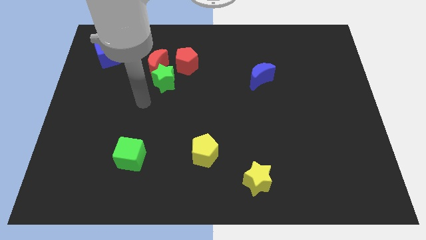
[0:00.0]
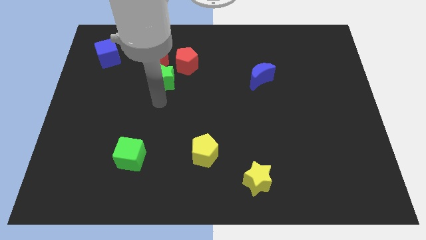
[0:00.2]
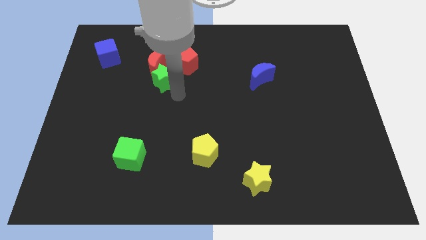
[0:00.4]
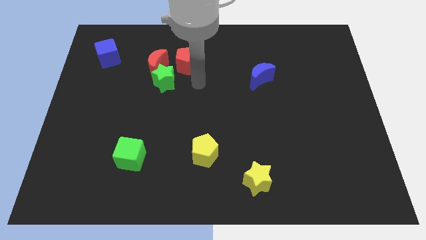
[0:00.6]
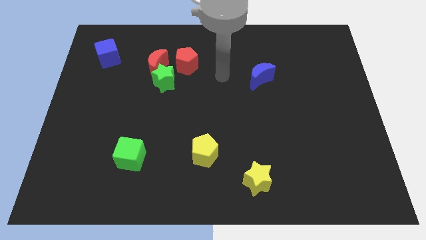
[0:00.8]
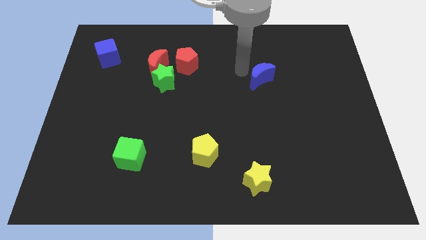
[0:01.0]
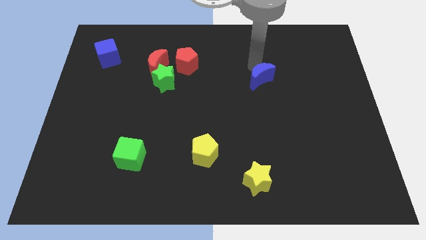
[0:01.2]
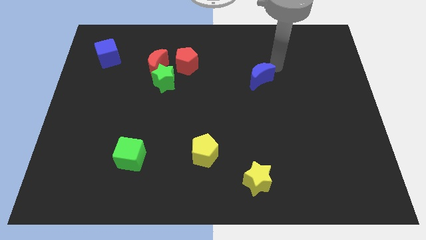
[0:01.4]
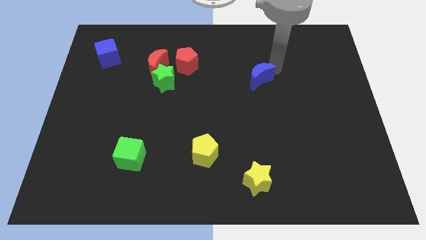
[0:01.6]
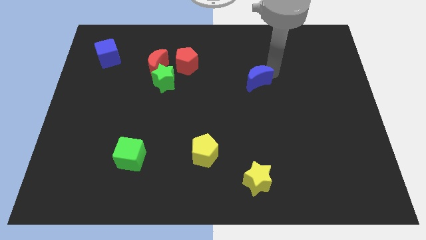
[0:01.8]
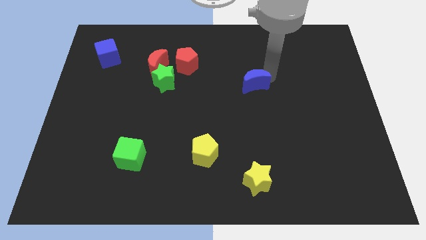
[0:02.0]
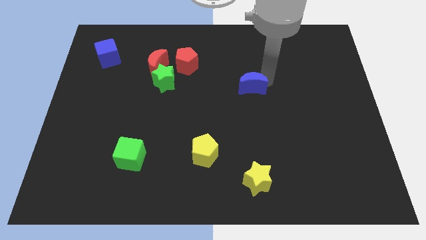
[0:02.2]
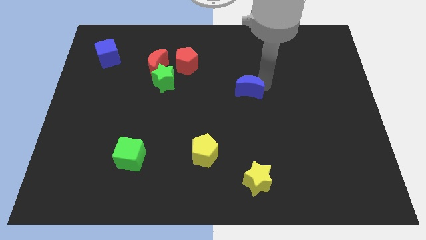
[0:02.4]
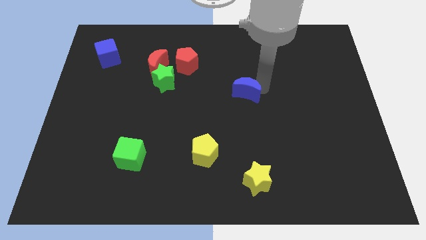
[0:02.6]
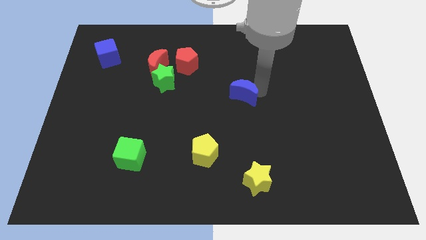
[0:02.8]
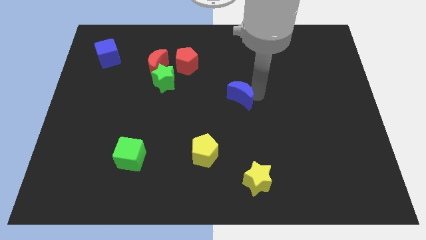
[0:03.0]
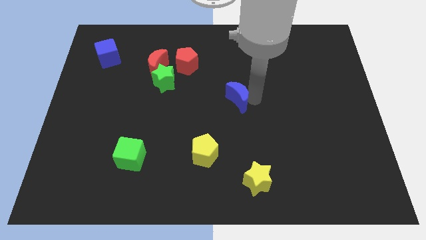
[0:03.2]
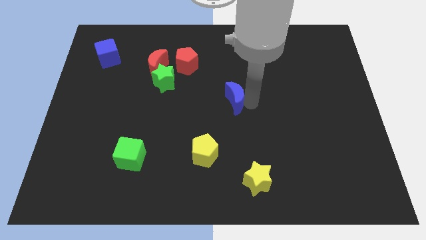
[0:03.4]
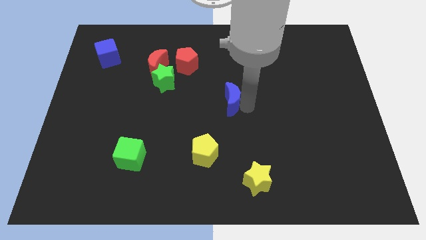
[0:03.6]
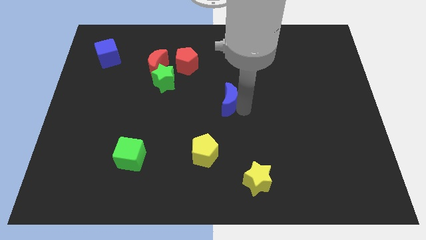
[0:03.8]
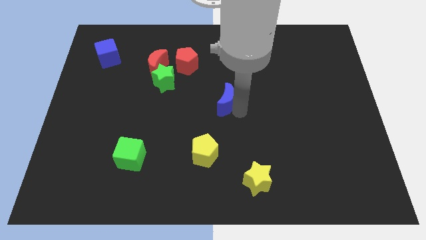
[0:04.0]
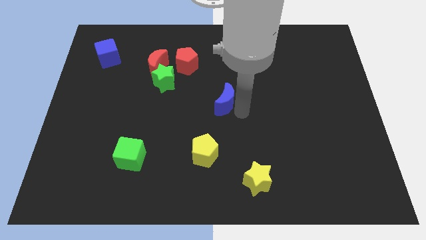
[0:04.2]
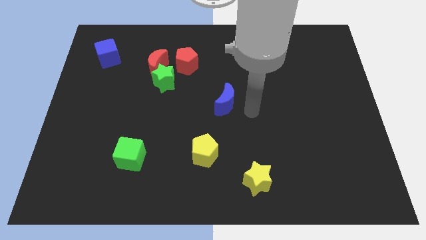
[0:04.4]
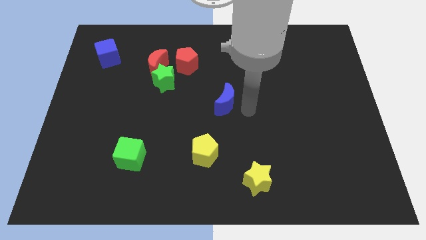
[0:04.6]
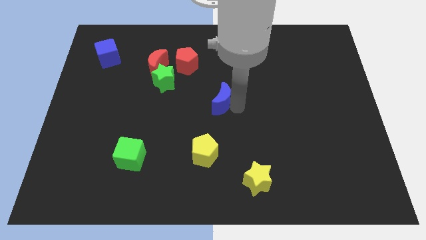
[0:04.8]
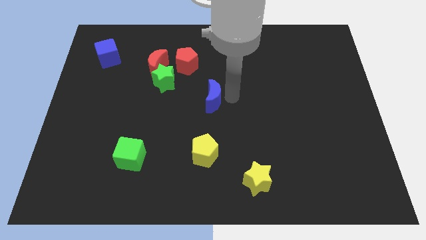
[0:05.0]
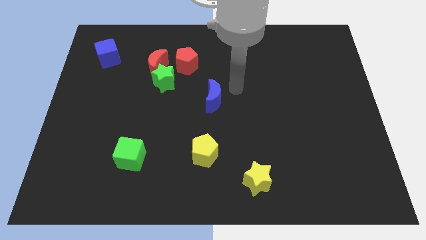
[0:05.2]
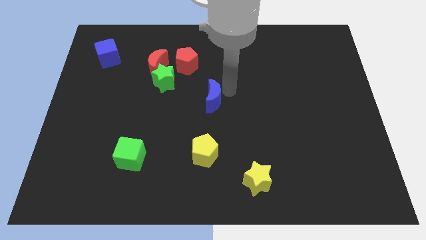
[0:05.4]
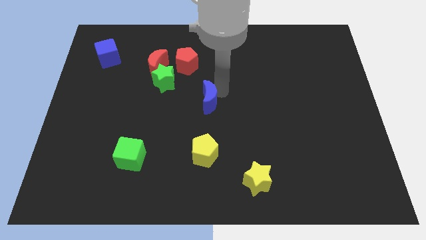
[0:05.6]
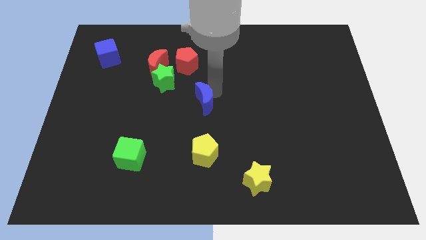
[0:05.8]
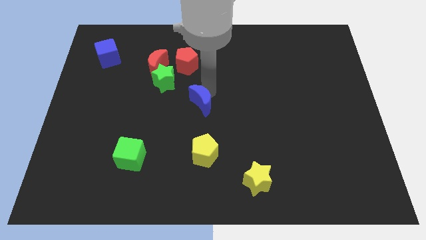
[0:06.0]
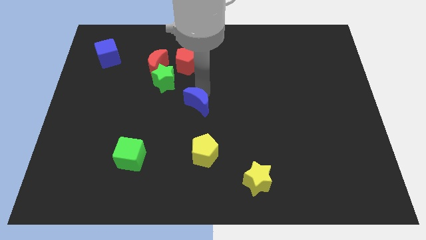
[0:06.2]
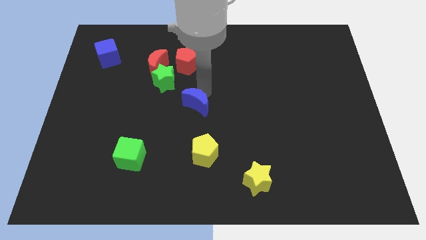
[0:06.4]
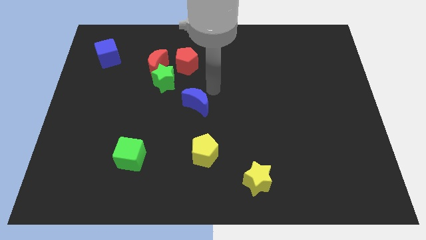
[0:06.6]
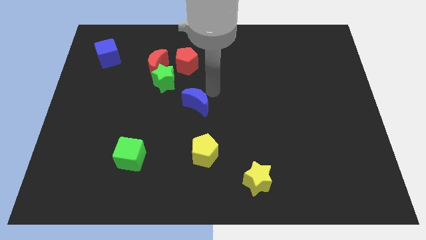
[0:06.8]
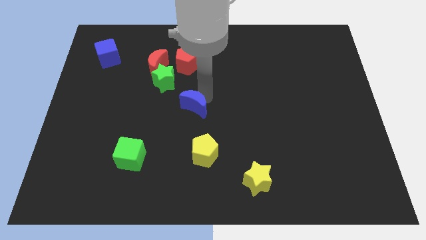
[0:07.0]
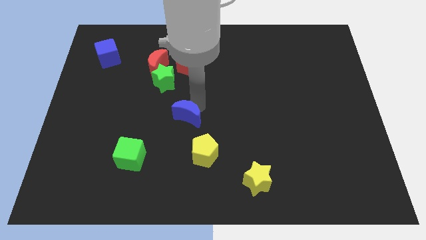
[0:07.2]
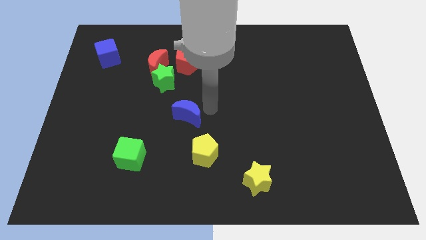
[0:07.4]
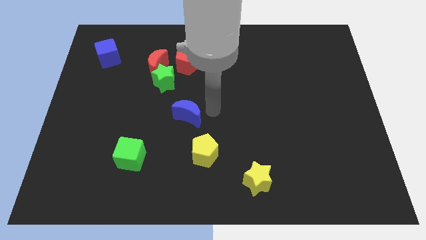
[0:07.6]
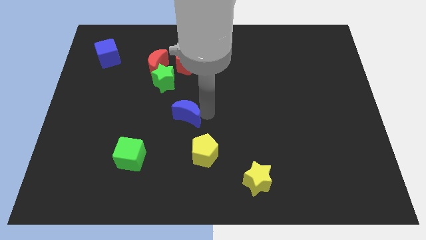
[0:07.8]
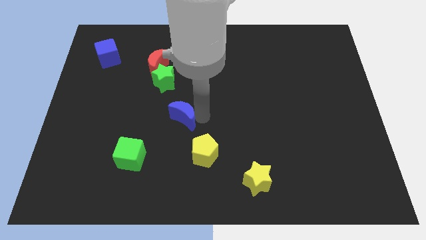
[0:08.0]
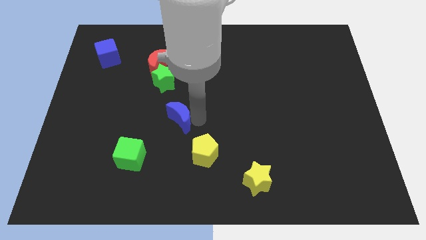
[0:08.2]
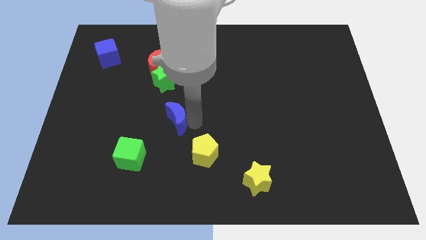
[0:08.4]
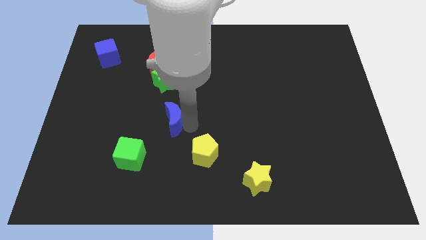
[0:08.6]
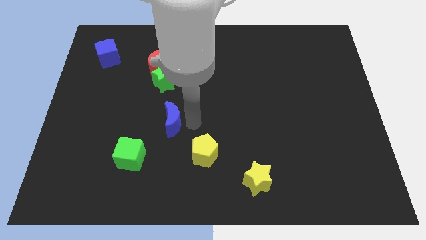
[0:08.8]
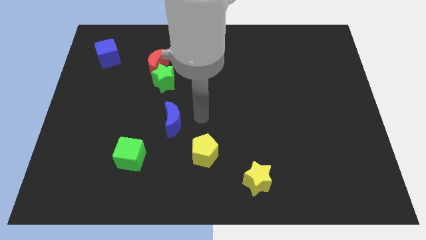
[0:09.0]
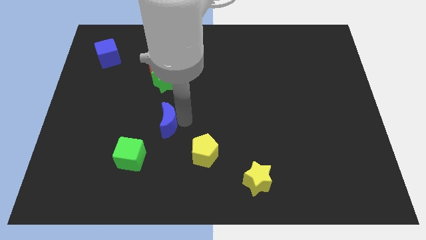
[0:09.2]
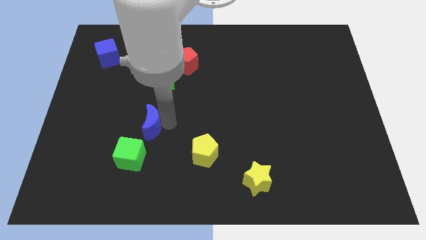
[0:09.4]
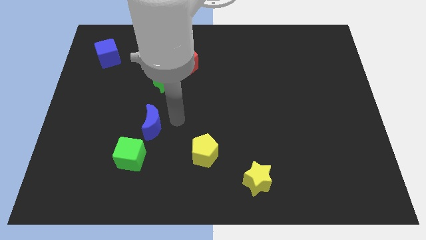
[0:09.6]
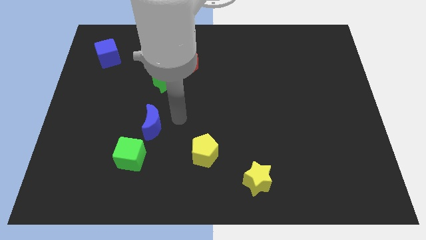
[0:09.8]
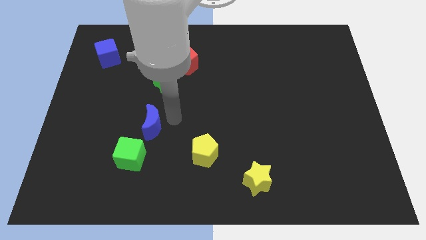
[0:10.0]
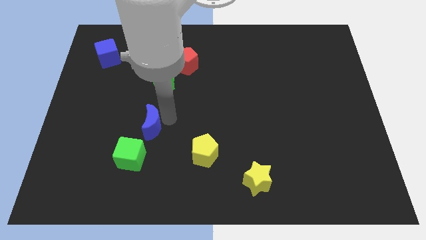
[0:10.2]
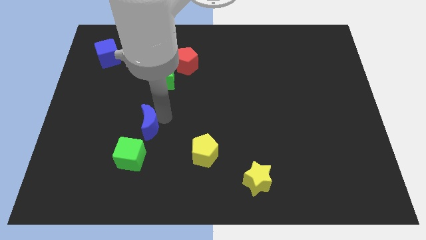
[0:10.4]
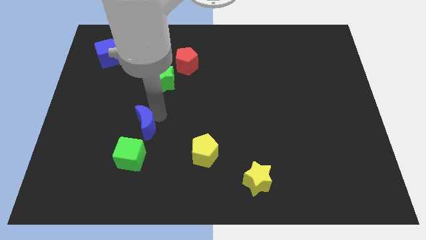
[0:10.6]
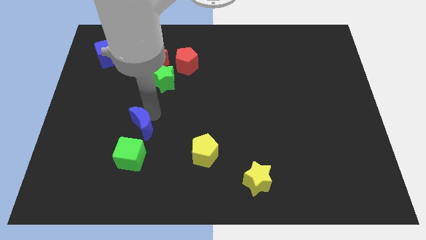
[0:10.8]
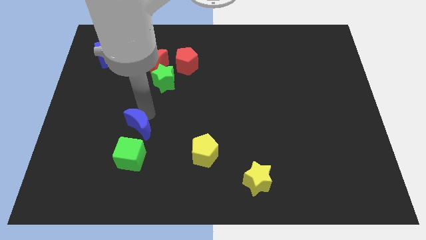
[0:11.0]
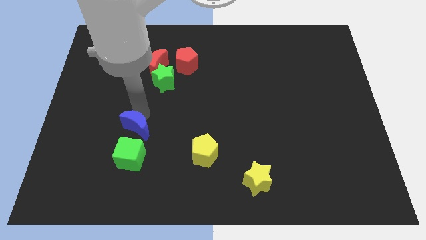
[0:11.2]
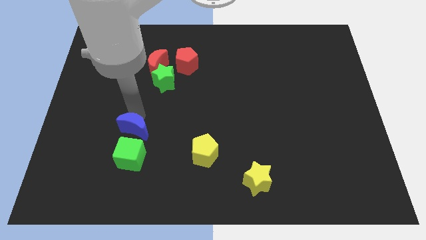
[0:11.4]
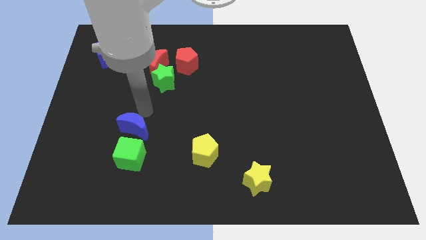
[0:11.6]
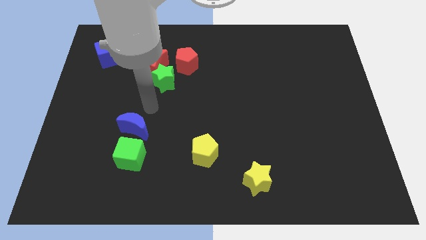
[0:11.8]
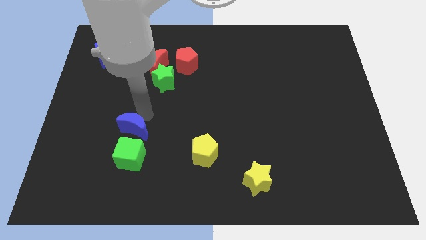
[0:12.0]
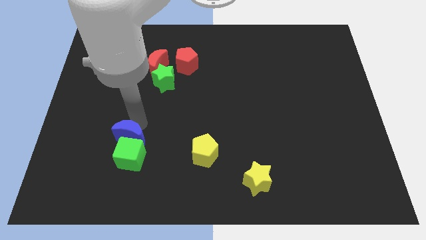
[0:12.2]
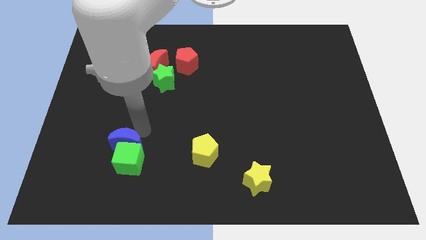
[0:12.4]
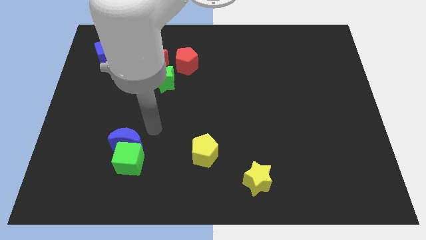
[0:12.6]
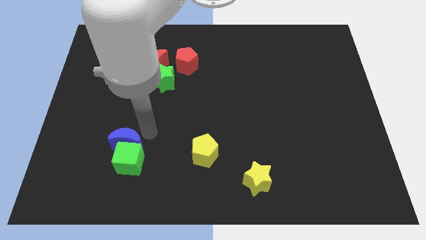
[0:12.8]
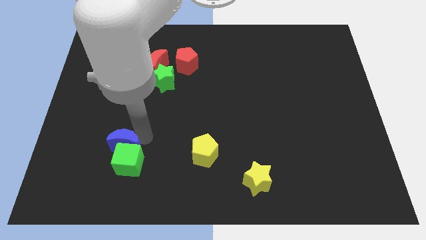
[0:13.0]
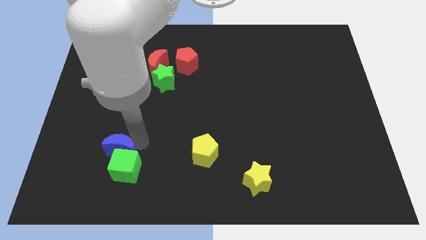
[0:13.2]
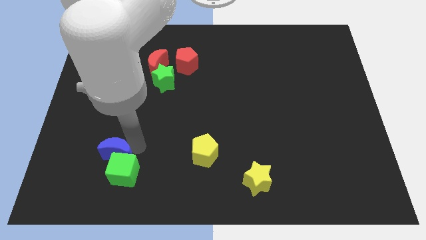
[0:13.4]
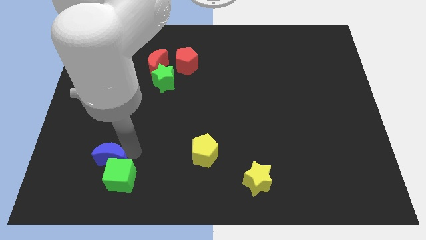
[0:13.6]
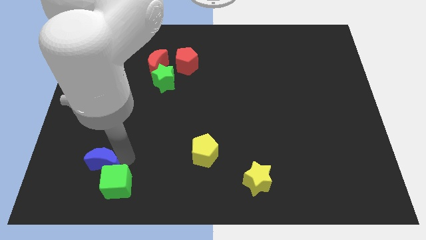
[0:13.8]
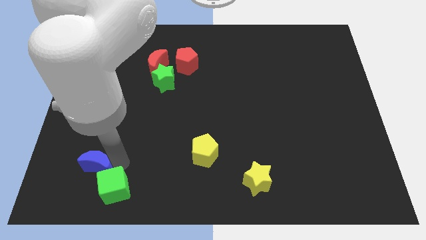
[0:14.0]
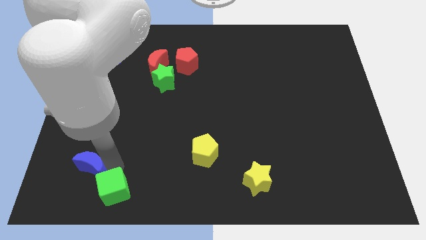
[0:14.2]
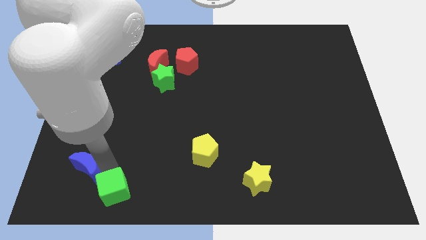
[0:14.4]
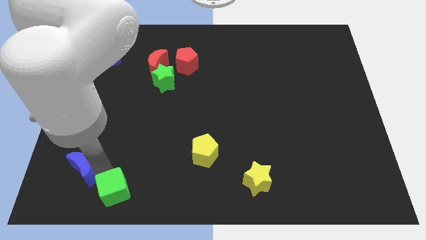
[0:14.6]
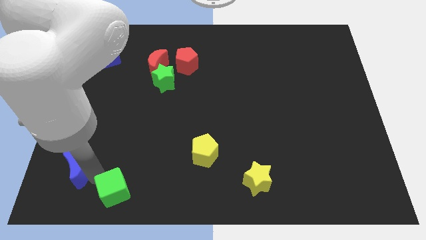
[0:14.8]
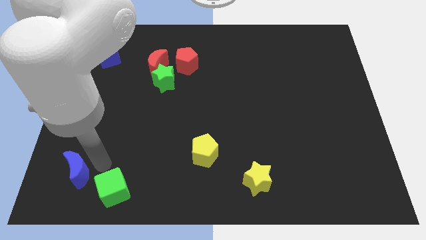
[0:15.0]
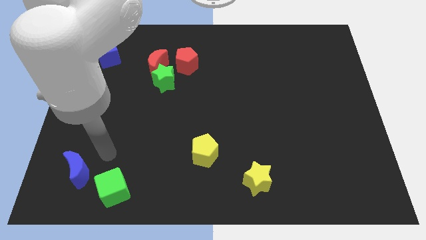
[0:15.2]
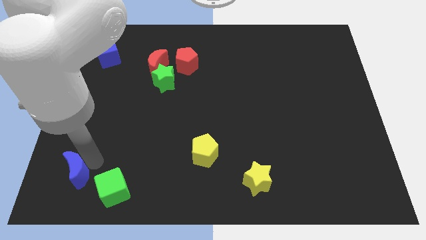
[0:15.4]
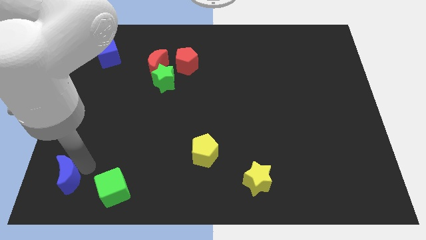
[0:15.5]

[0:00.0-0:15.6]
slide the blue moon to the bottom left of the board
